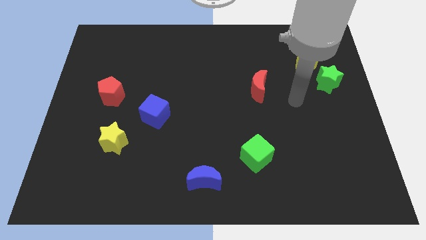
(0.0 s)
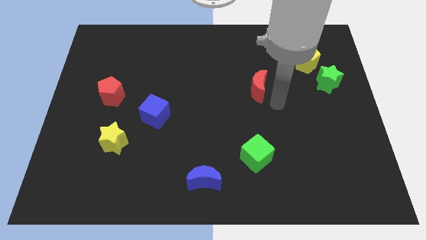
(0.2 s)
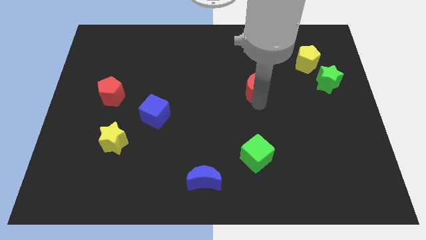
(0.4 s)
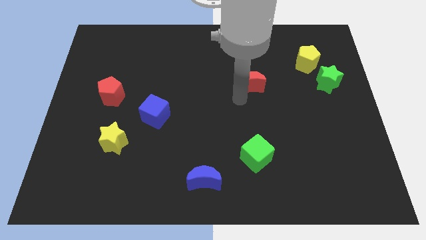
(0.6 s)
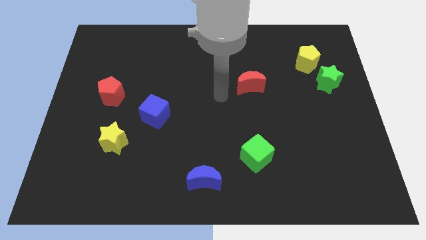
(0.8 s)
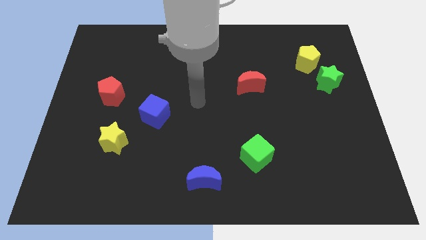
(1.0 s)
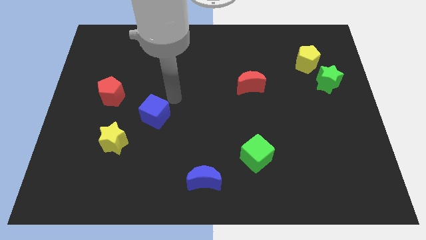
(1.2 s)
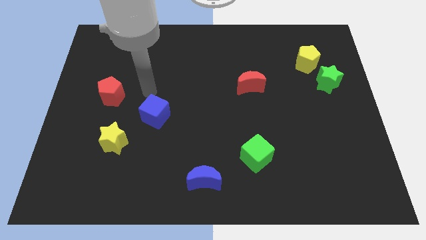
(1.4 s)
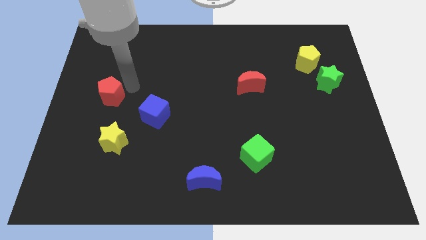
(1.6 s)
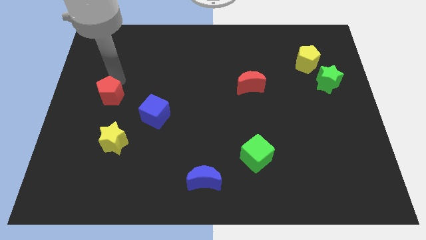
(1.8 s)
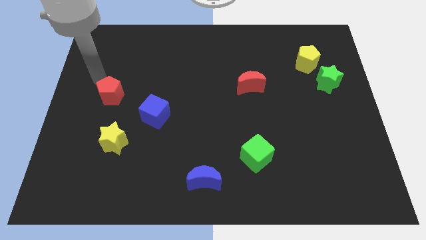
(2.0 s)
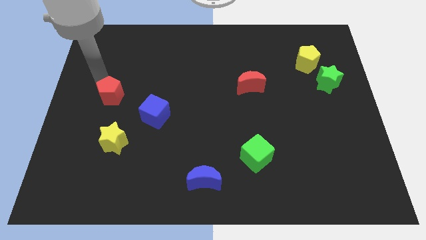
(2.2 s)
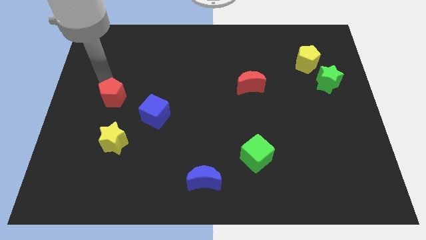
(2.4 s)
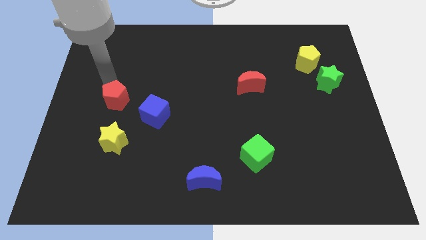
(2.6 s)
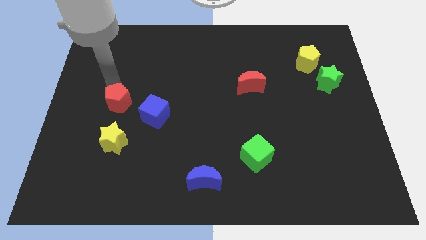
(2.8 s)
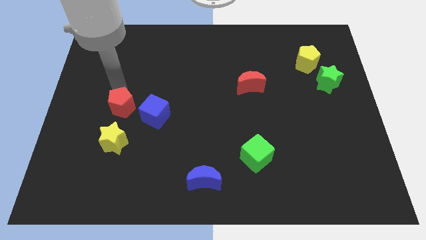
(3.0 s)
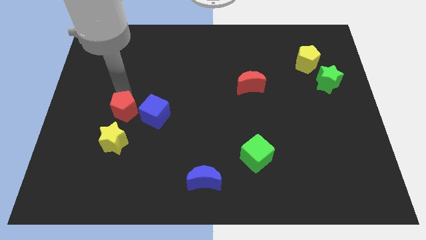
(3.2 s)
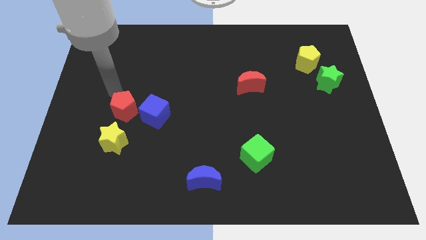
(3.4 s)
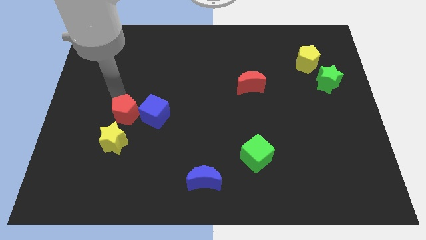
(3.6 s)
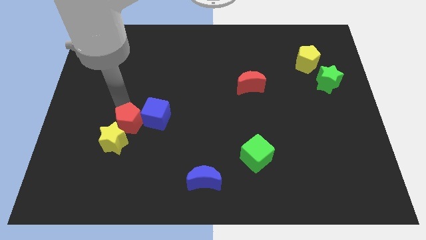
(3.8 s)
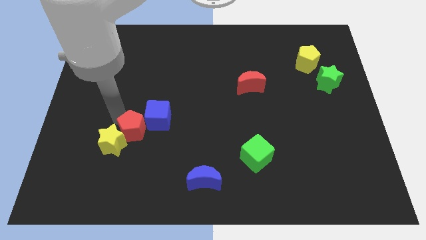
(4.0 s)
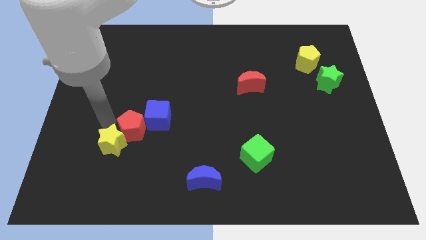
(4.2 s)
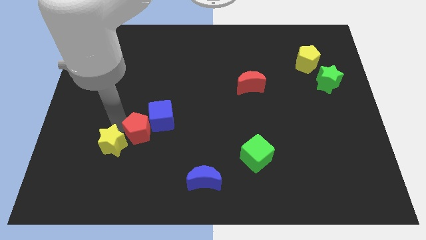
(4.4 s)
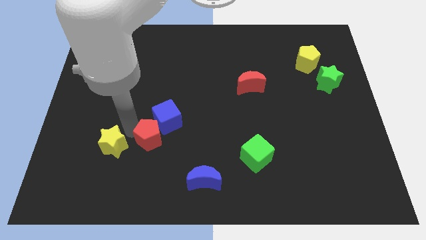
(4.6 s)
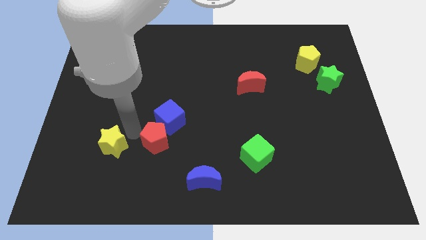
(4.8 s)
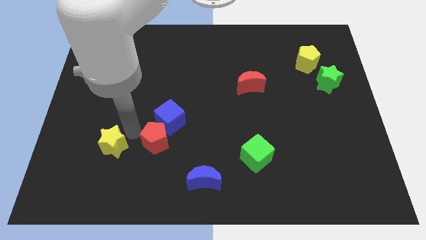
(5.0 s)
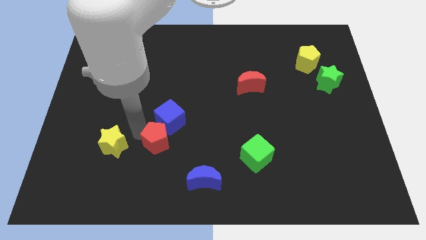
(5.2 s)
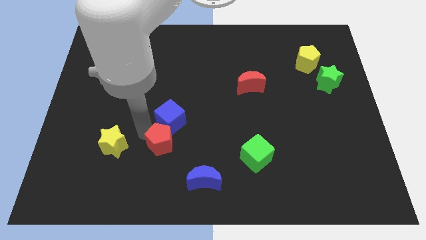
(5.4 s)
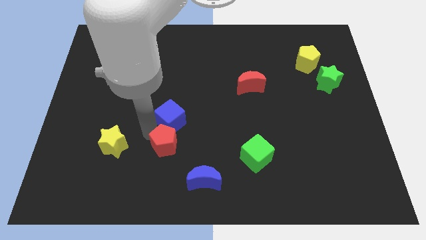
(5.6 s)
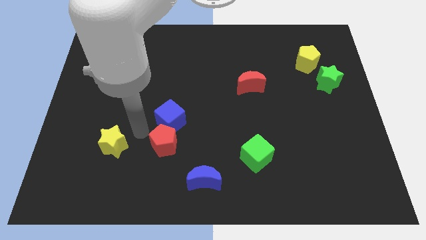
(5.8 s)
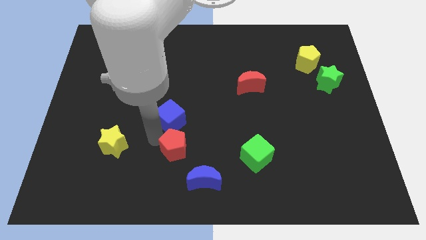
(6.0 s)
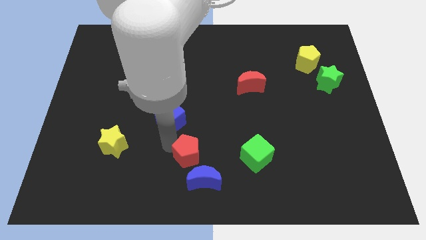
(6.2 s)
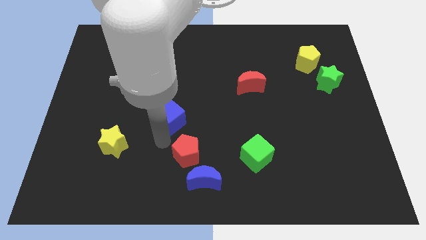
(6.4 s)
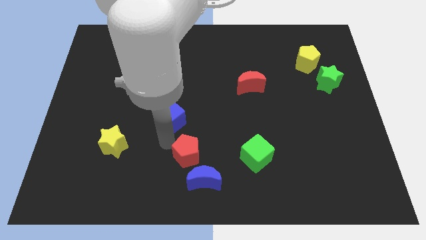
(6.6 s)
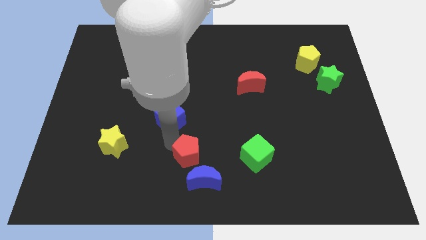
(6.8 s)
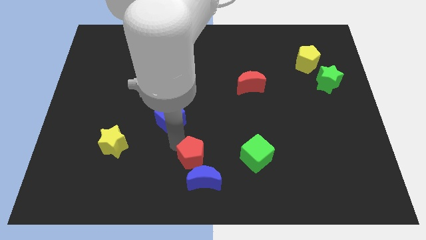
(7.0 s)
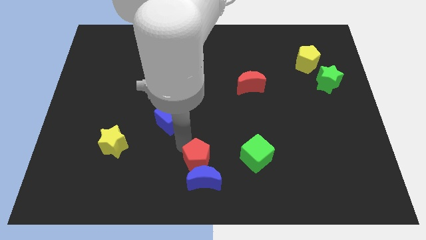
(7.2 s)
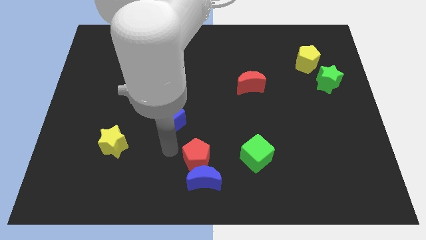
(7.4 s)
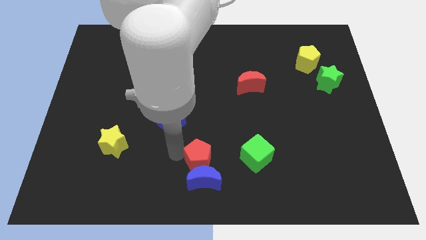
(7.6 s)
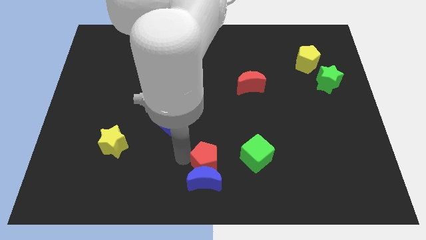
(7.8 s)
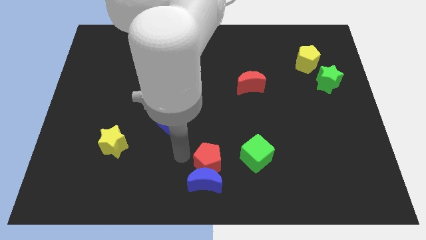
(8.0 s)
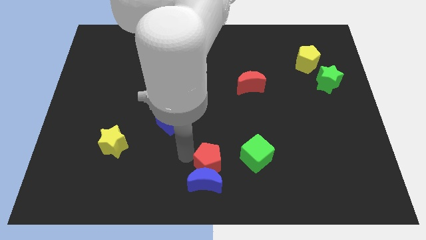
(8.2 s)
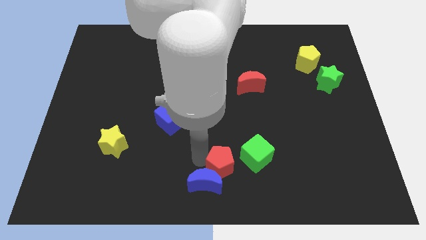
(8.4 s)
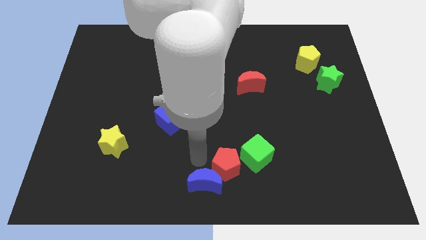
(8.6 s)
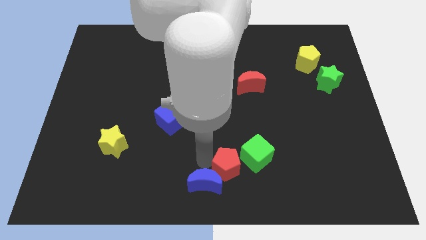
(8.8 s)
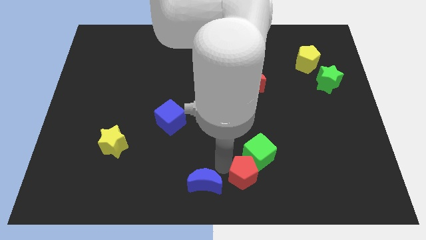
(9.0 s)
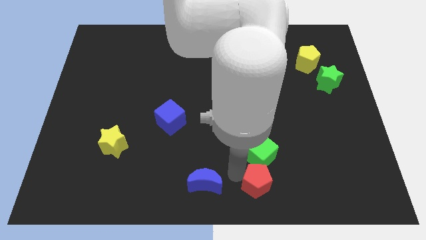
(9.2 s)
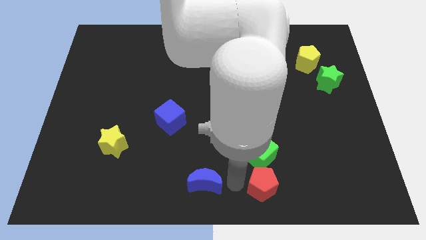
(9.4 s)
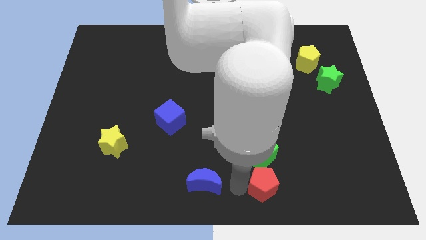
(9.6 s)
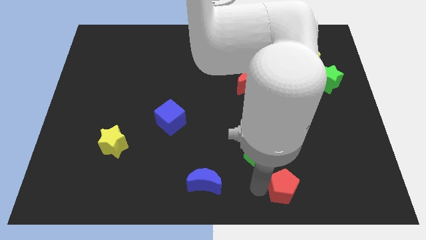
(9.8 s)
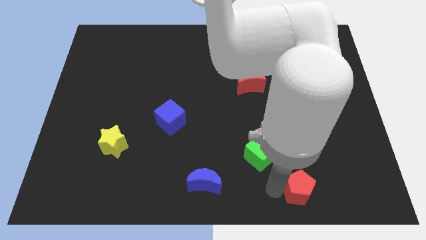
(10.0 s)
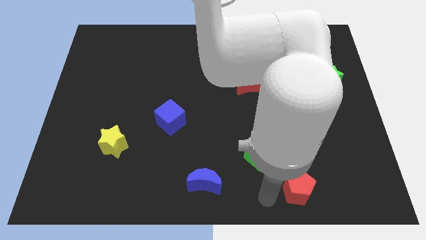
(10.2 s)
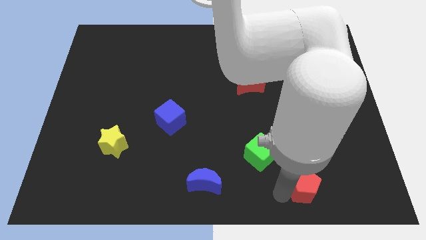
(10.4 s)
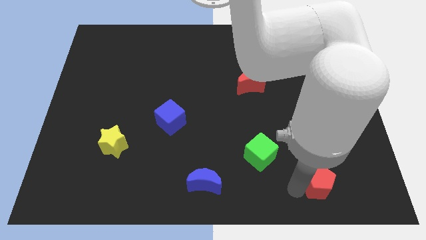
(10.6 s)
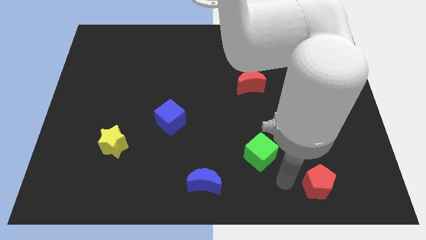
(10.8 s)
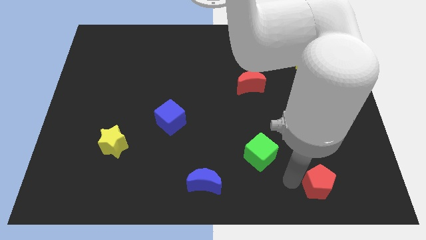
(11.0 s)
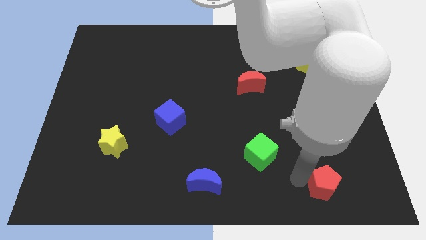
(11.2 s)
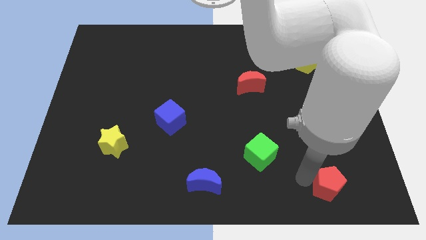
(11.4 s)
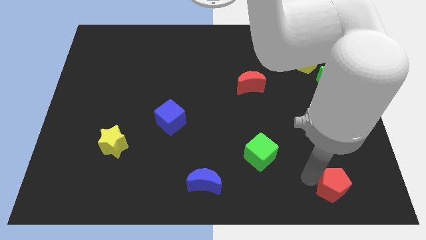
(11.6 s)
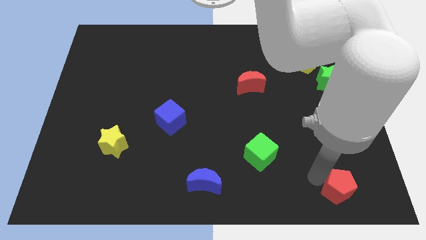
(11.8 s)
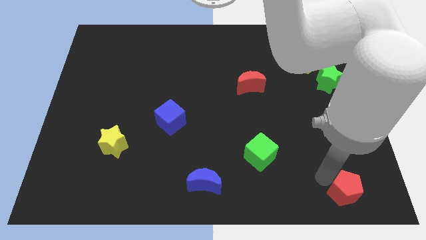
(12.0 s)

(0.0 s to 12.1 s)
slide the red pentagon to the bottom right corner
